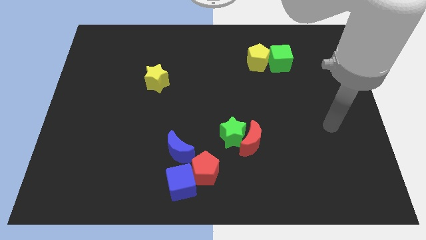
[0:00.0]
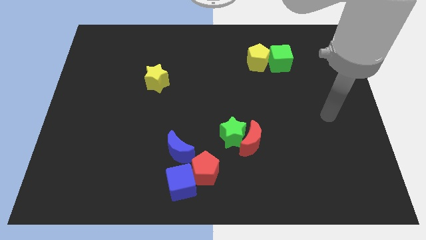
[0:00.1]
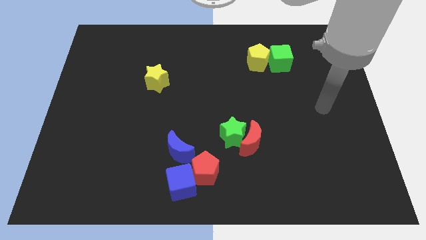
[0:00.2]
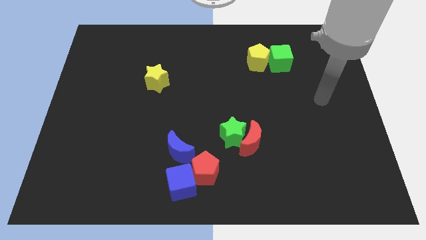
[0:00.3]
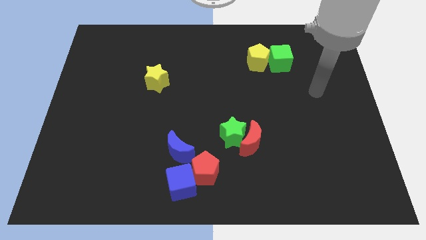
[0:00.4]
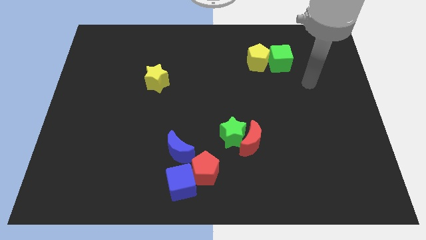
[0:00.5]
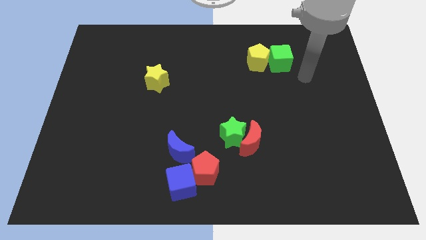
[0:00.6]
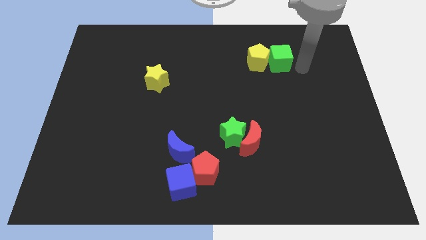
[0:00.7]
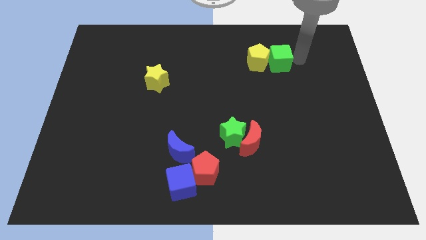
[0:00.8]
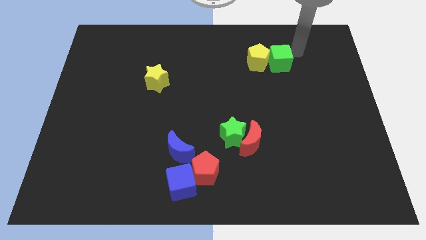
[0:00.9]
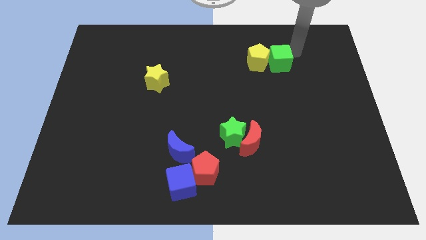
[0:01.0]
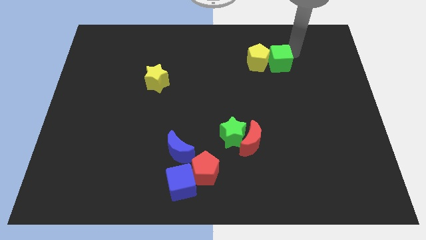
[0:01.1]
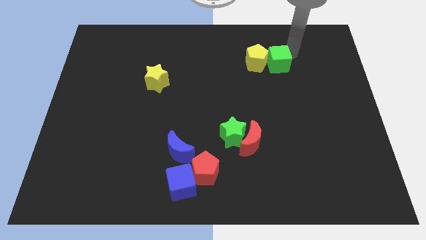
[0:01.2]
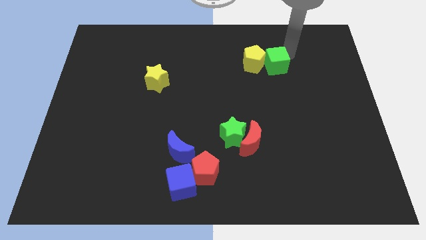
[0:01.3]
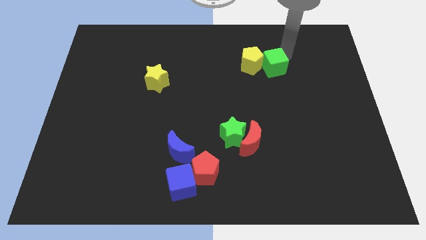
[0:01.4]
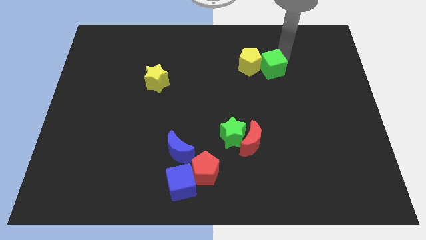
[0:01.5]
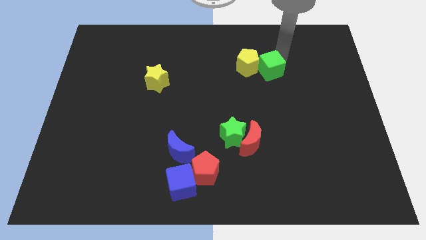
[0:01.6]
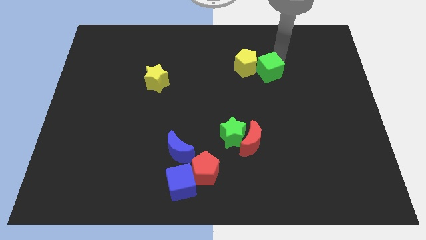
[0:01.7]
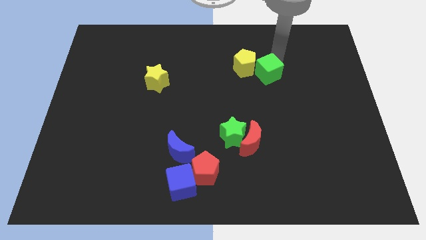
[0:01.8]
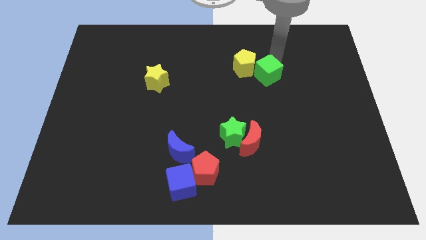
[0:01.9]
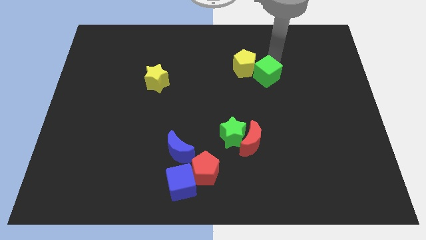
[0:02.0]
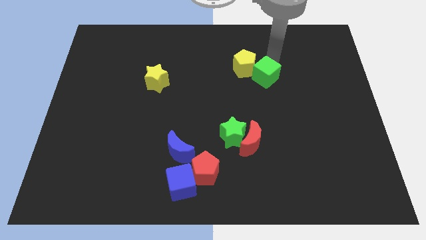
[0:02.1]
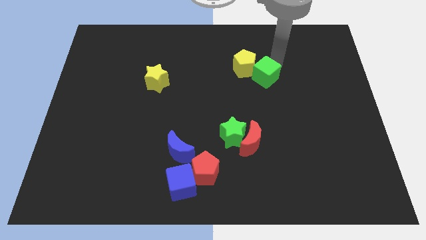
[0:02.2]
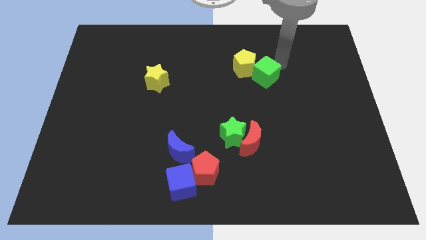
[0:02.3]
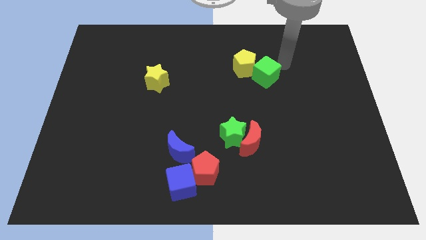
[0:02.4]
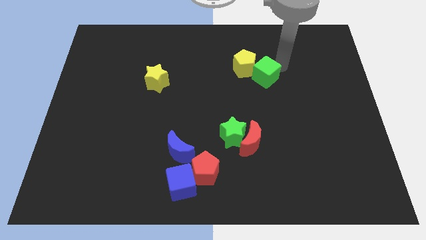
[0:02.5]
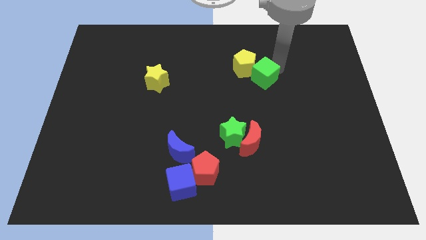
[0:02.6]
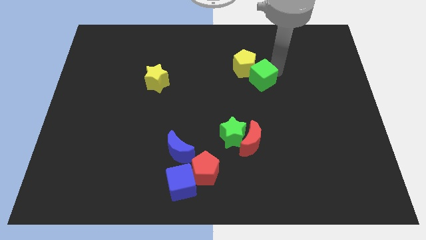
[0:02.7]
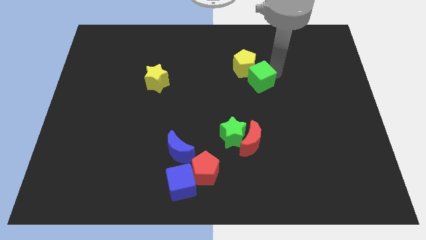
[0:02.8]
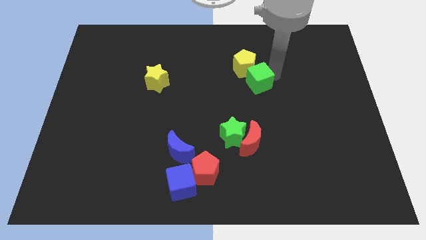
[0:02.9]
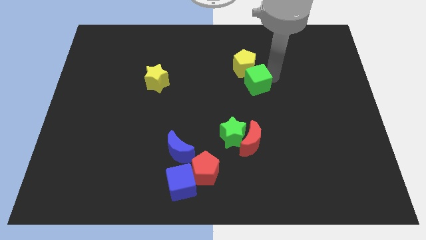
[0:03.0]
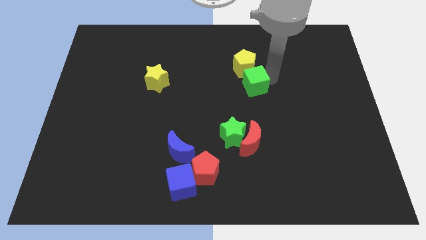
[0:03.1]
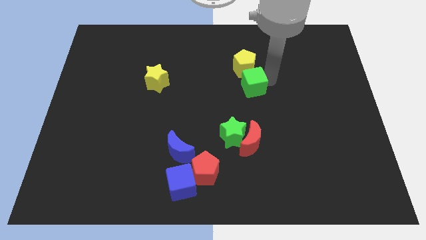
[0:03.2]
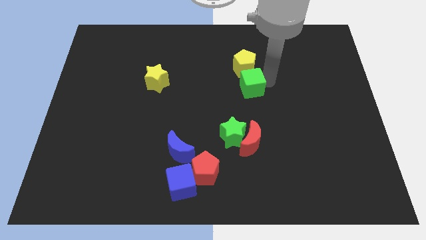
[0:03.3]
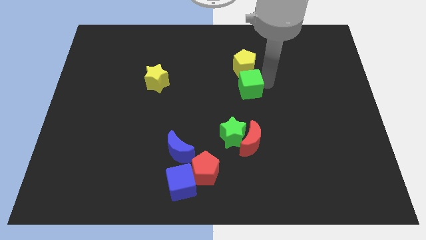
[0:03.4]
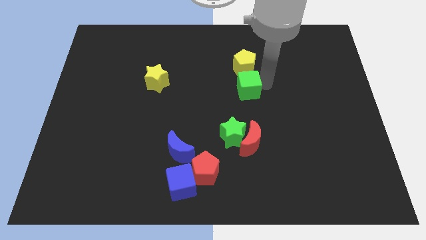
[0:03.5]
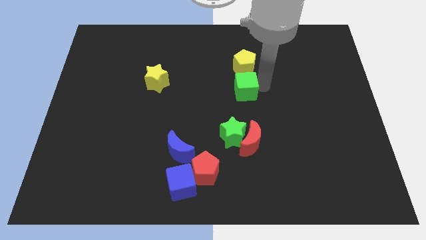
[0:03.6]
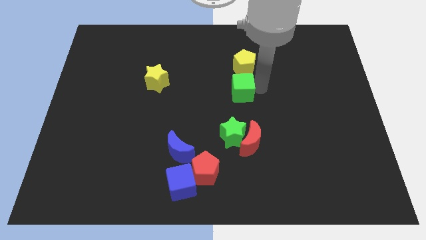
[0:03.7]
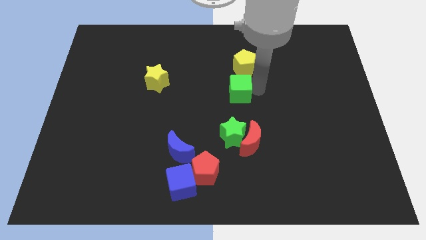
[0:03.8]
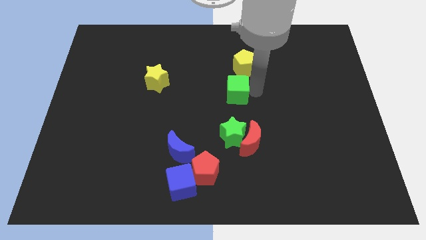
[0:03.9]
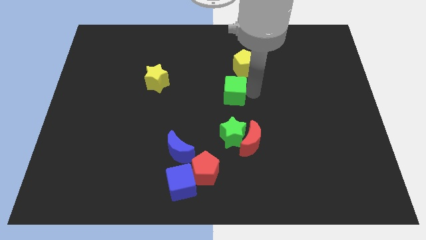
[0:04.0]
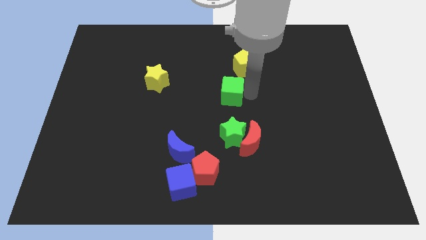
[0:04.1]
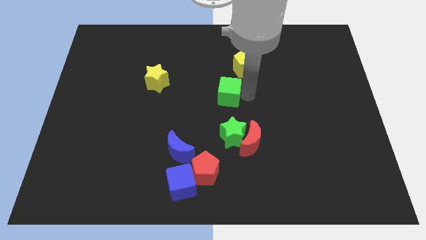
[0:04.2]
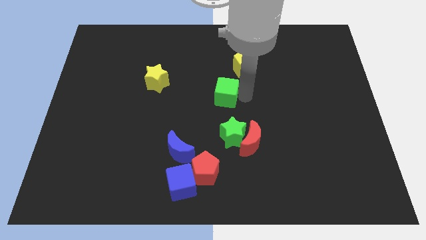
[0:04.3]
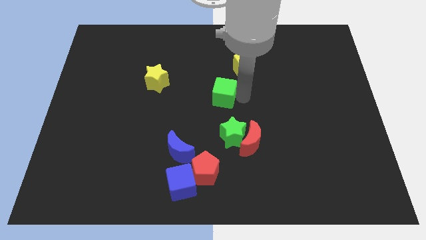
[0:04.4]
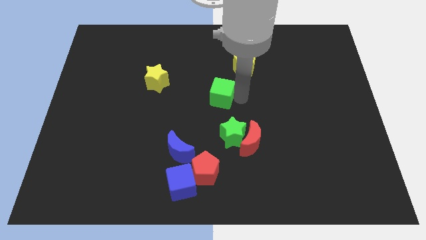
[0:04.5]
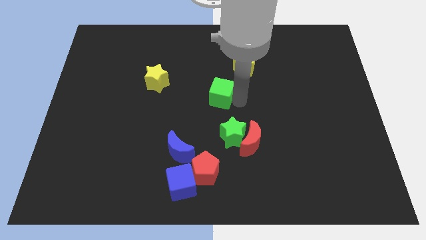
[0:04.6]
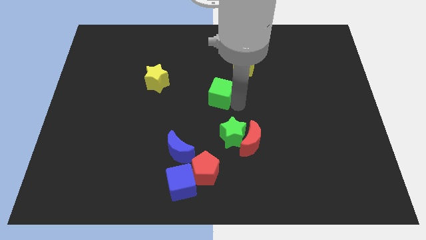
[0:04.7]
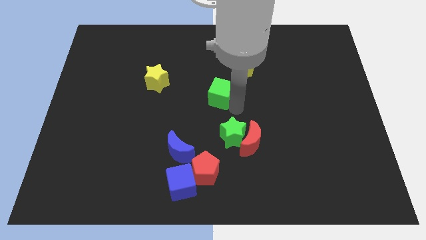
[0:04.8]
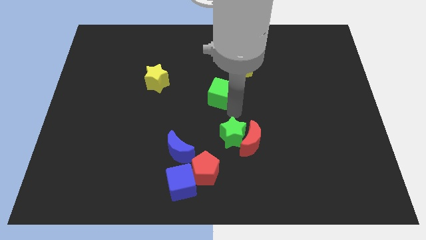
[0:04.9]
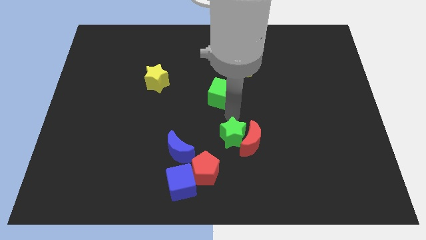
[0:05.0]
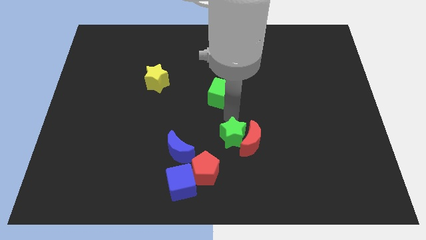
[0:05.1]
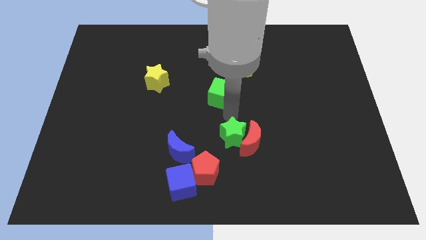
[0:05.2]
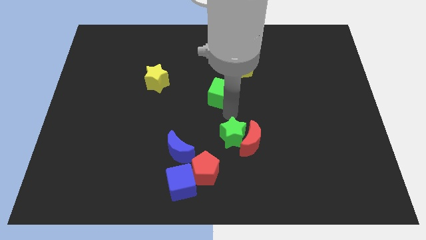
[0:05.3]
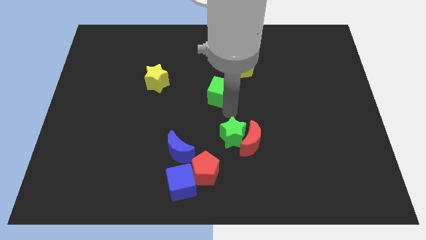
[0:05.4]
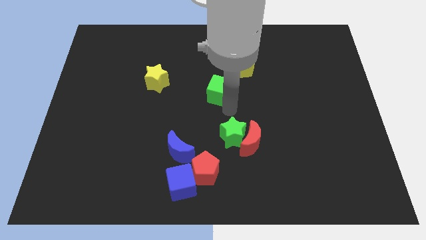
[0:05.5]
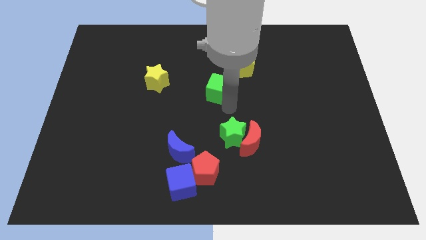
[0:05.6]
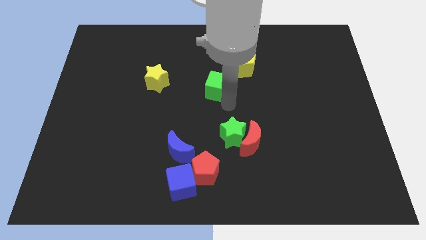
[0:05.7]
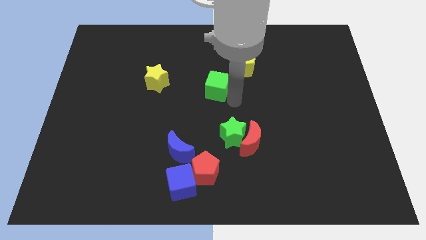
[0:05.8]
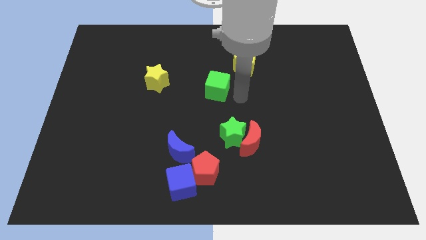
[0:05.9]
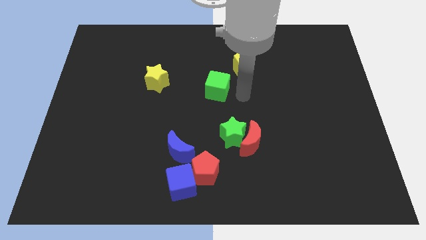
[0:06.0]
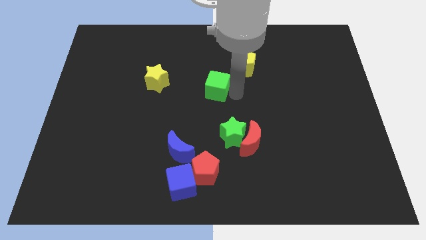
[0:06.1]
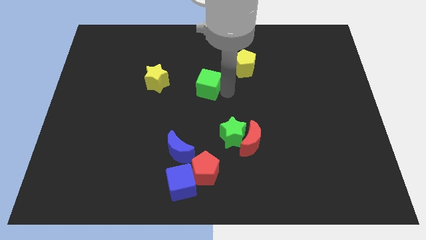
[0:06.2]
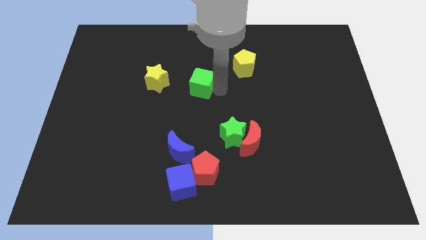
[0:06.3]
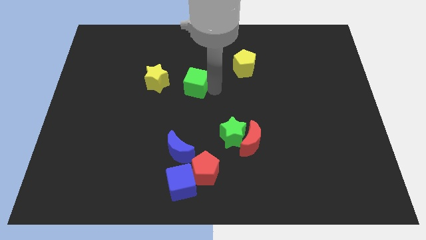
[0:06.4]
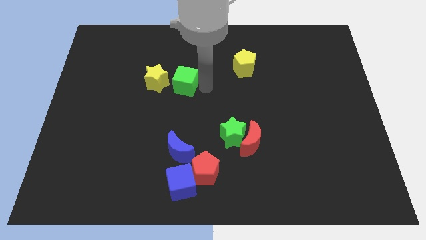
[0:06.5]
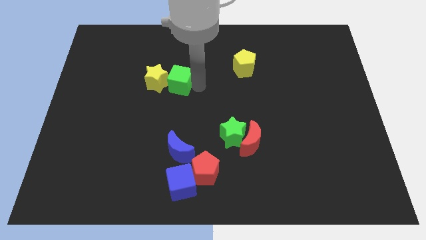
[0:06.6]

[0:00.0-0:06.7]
slide the green cube close to the yellow star
